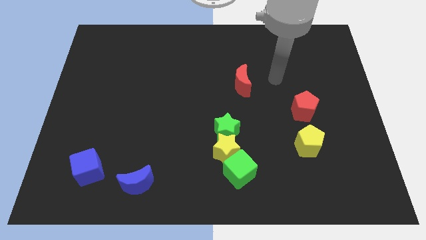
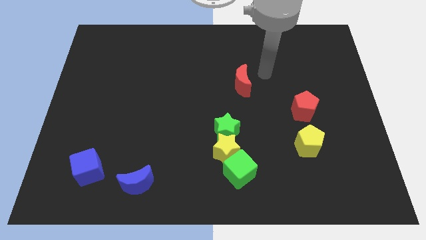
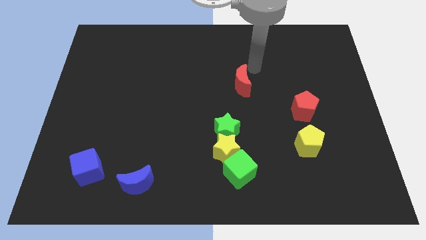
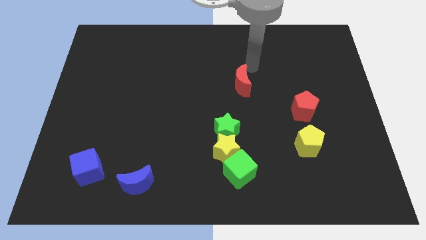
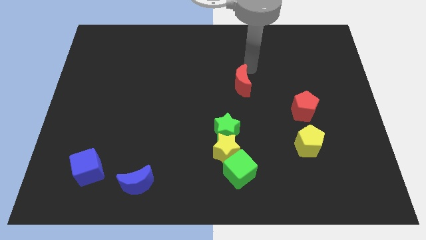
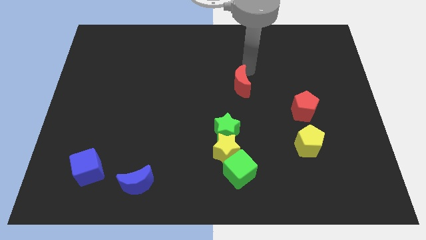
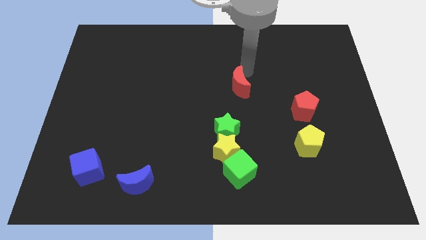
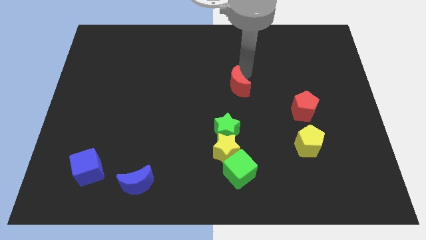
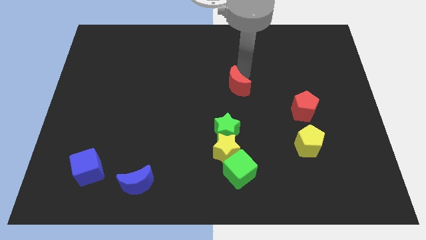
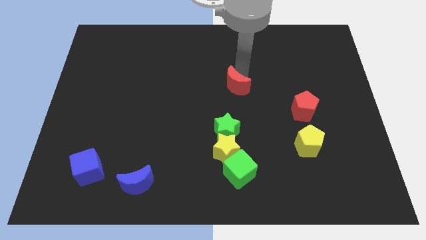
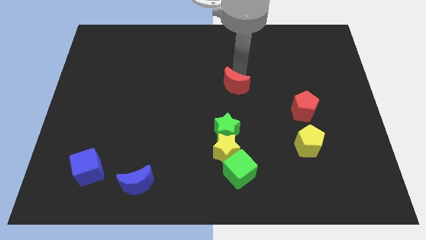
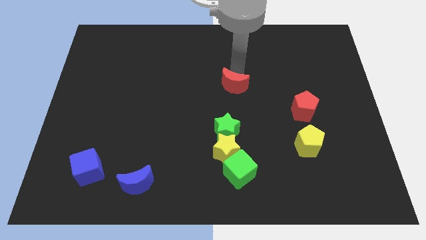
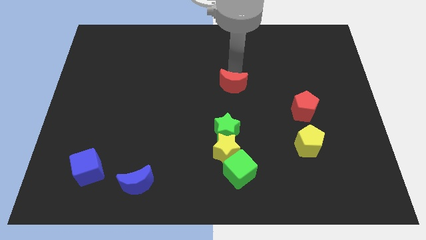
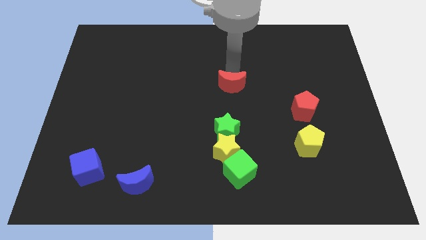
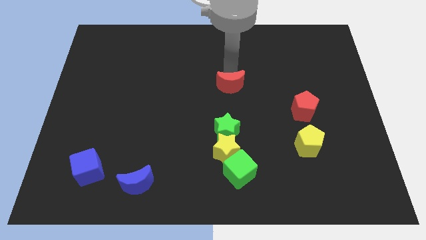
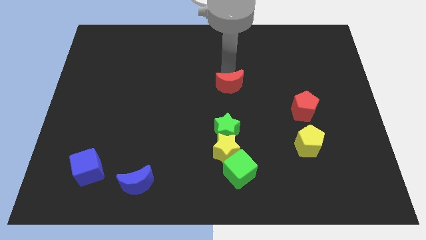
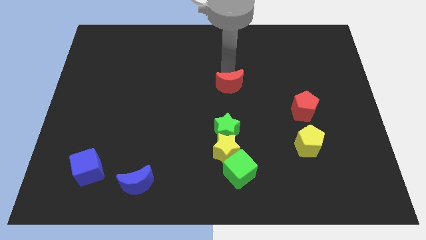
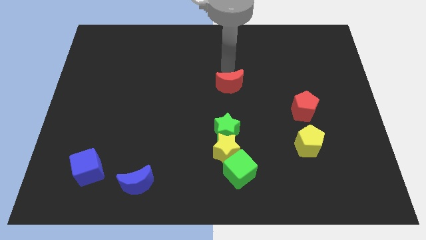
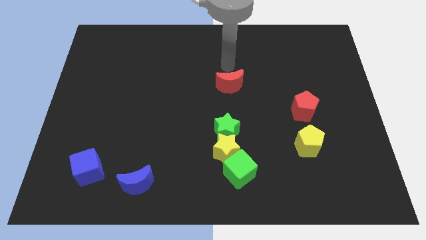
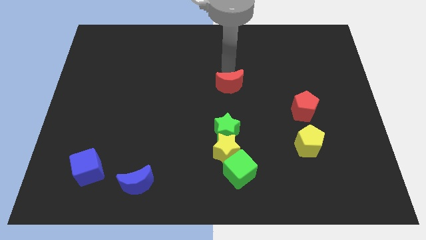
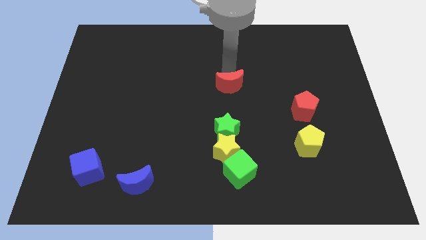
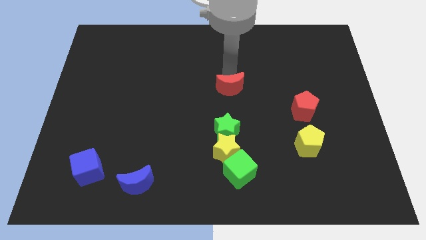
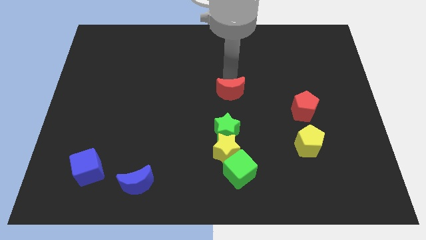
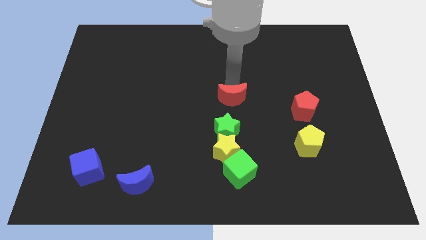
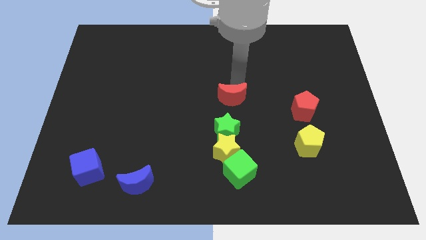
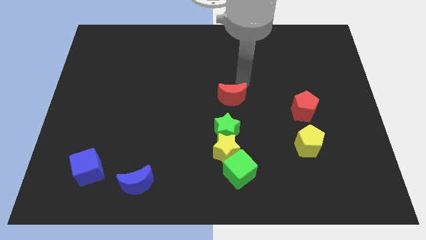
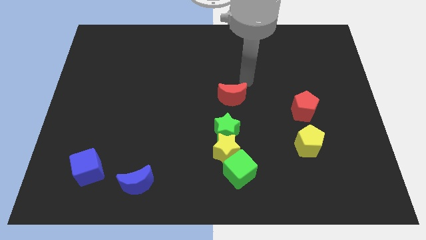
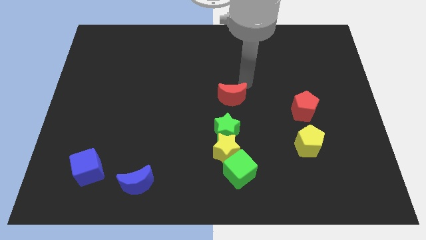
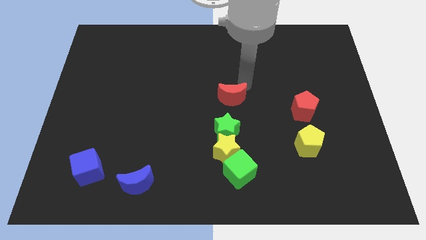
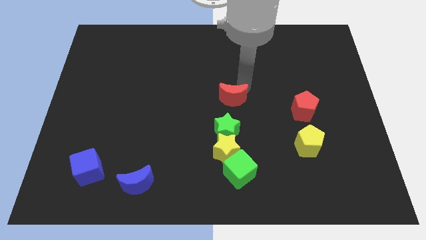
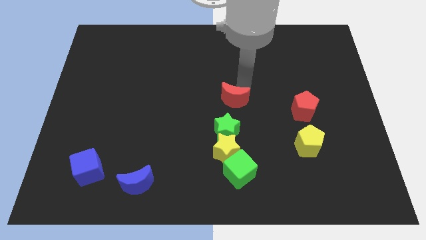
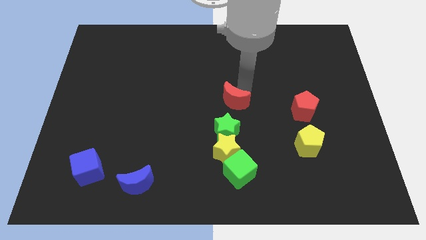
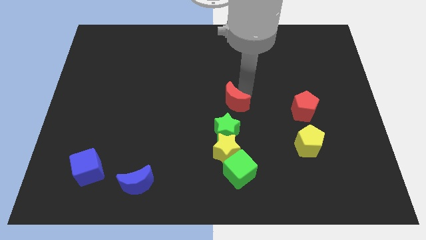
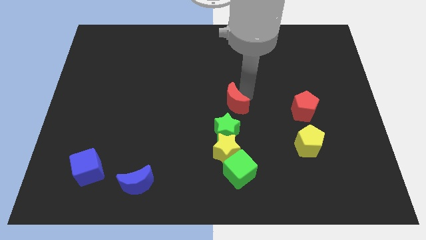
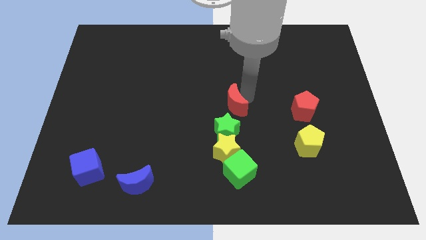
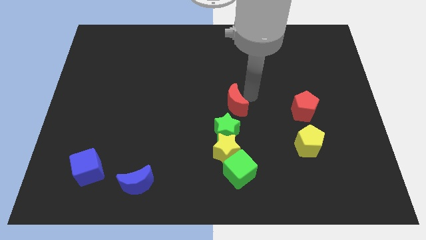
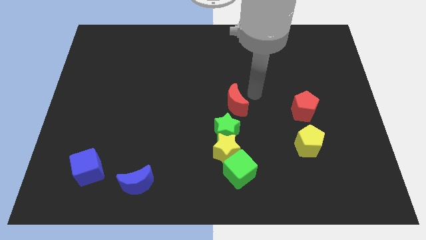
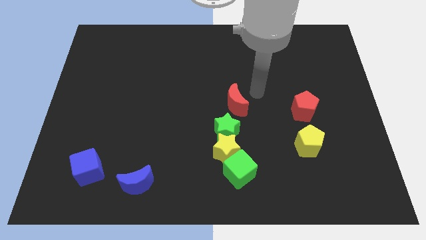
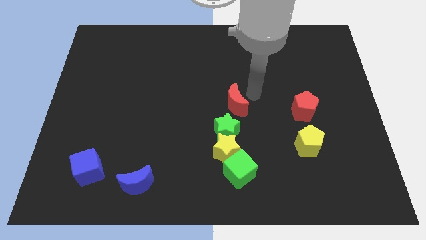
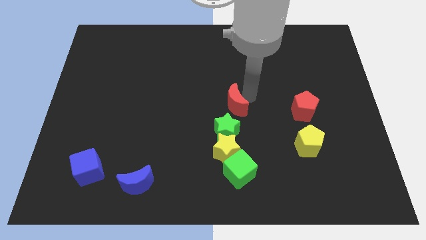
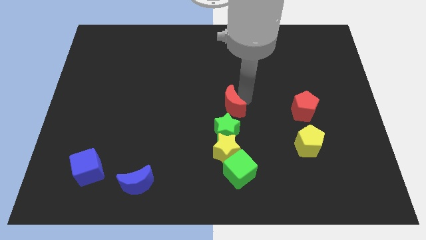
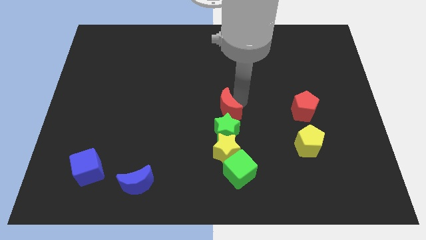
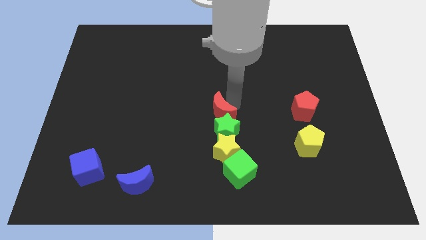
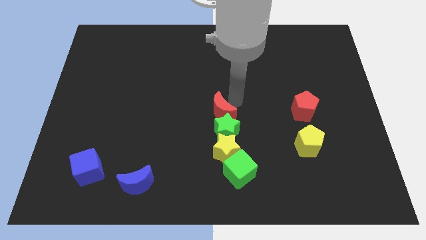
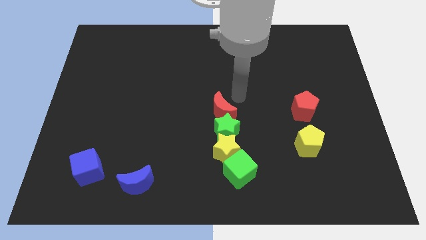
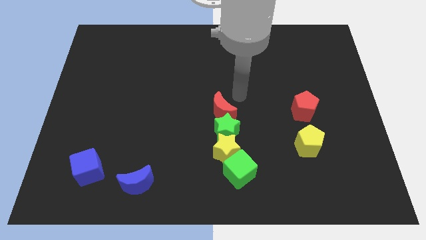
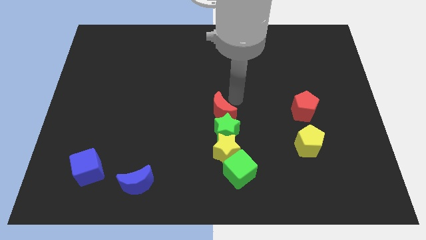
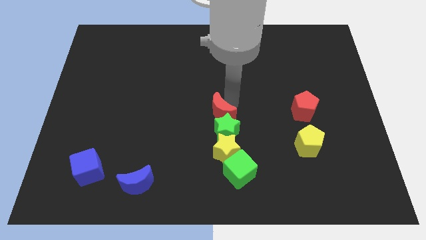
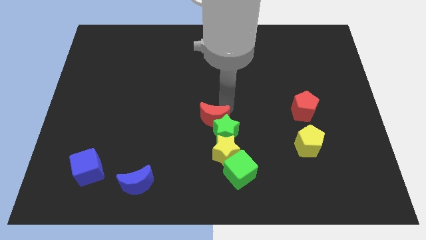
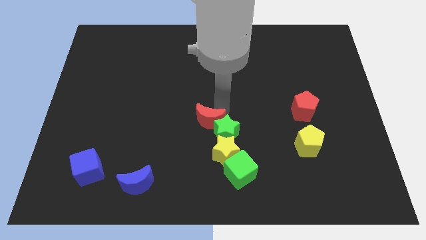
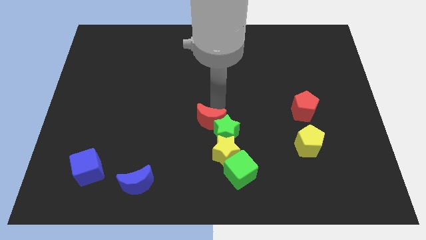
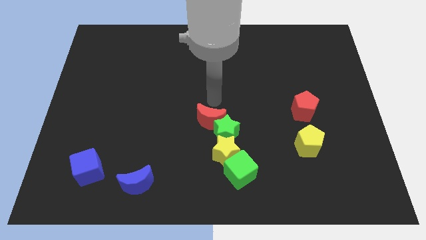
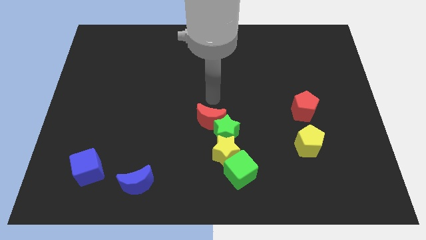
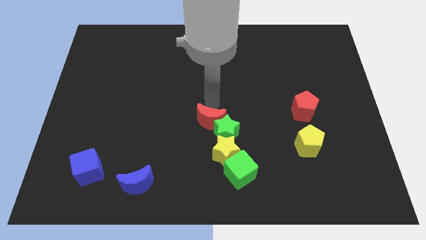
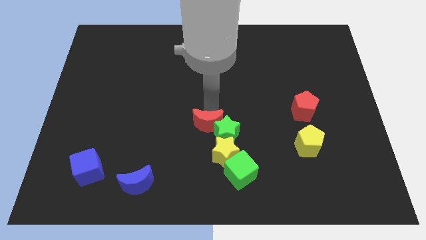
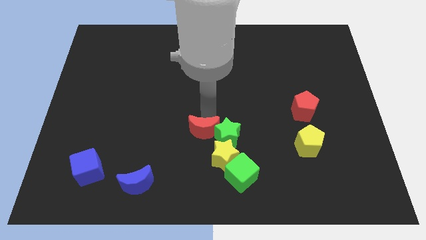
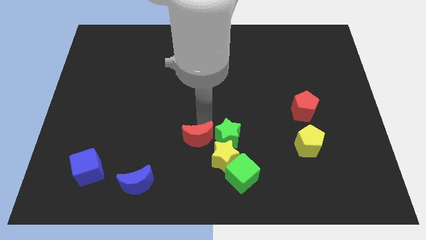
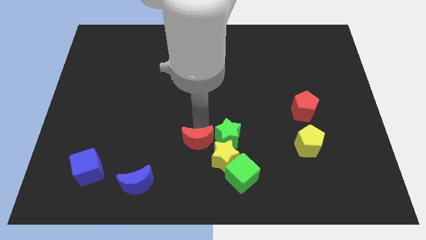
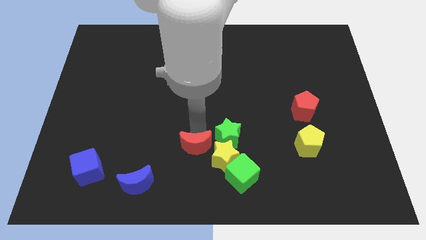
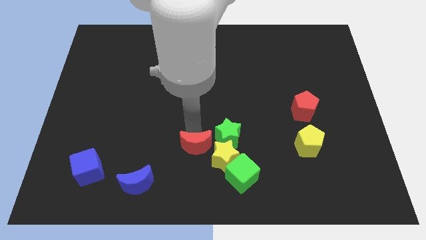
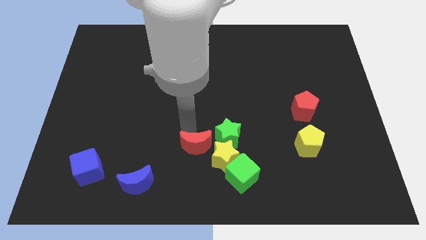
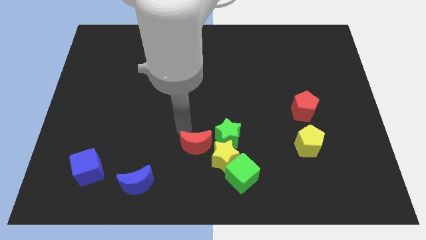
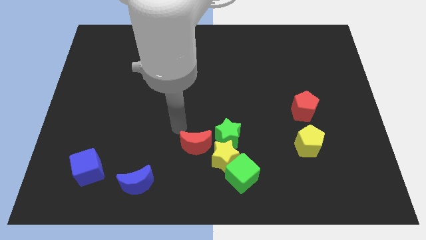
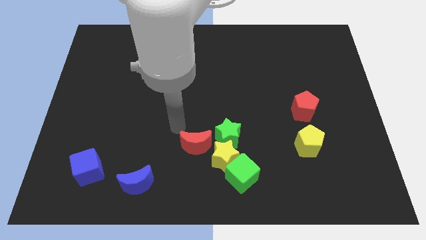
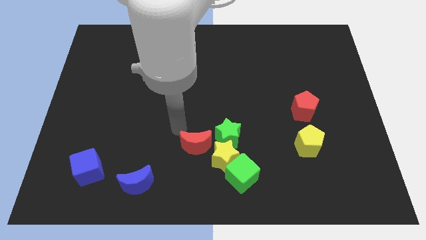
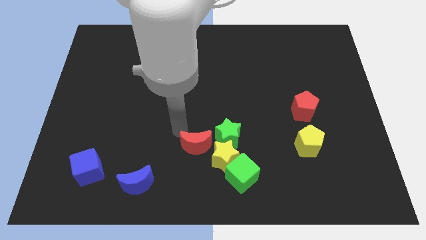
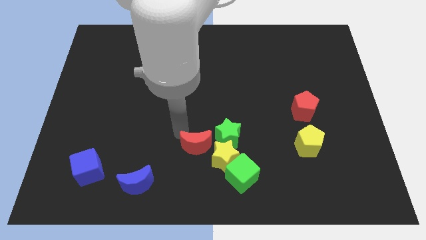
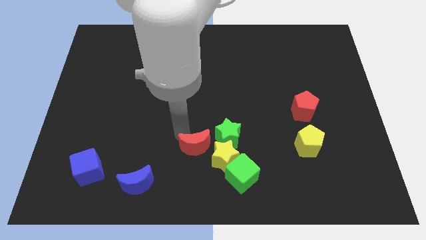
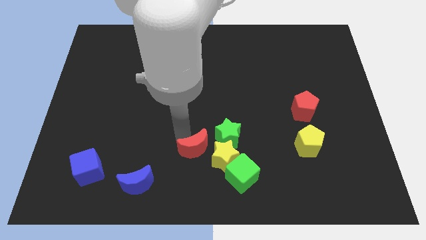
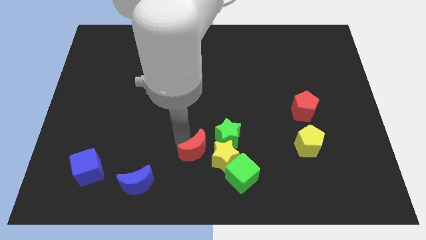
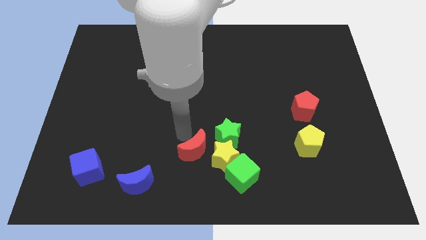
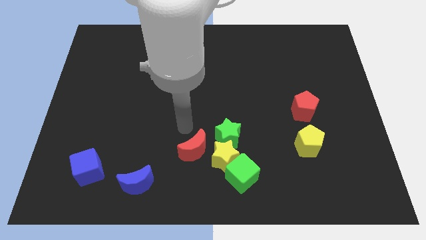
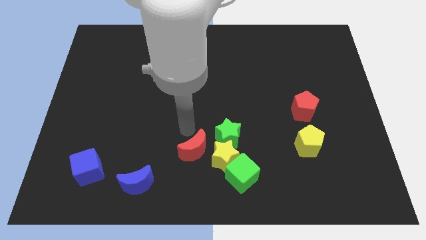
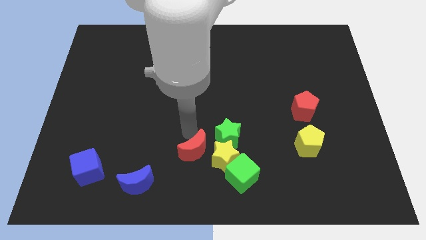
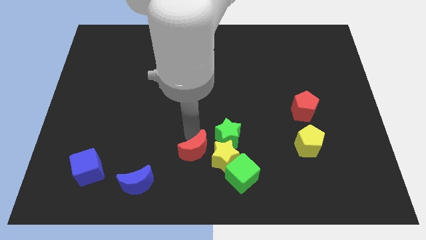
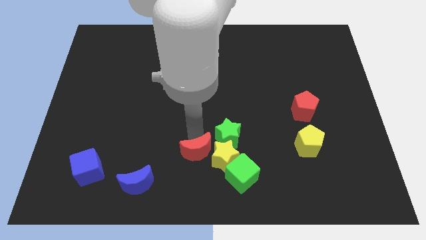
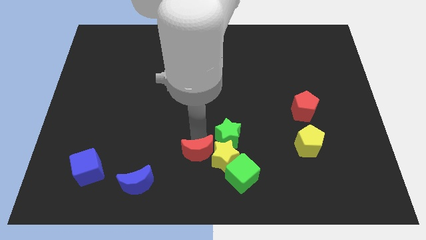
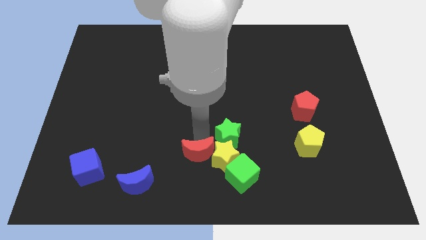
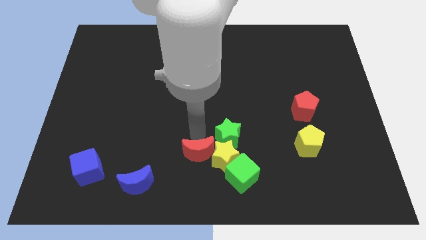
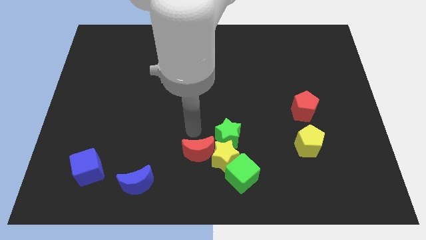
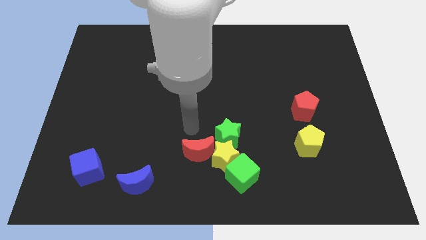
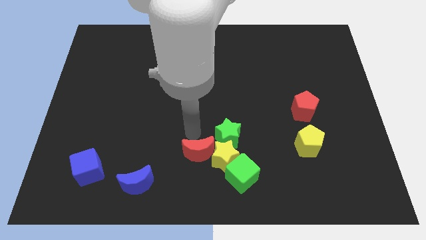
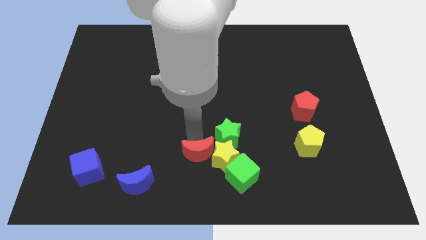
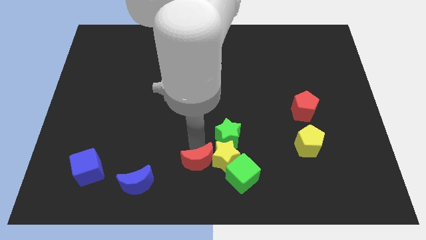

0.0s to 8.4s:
move the red moon to the bottom side
